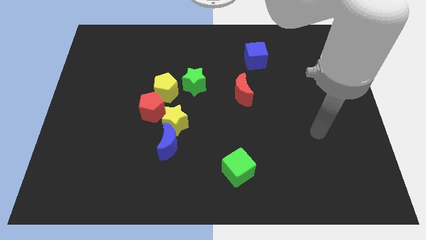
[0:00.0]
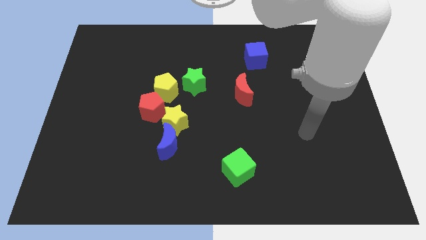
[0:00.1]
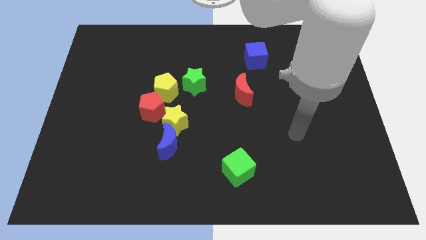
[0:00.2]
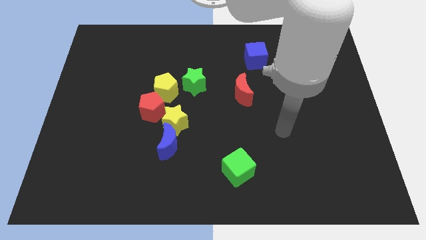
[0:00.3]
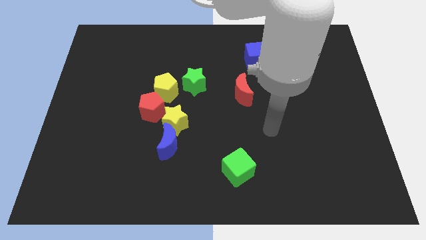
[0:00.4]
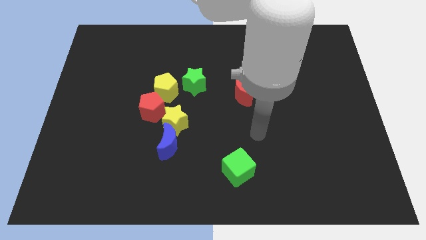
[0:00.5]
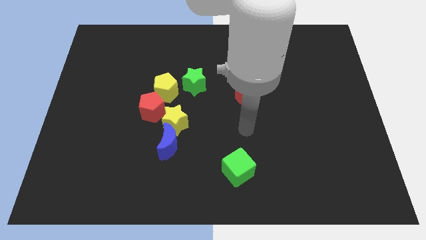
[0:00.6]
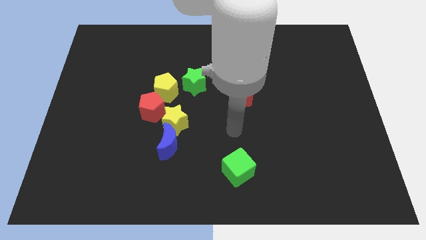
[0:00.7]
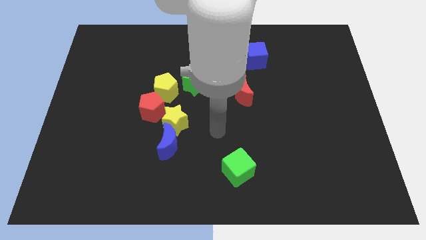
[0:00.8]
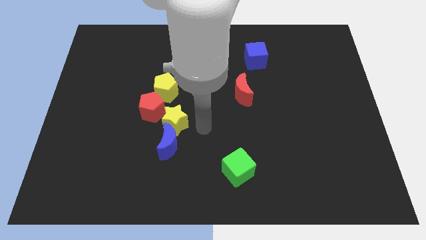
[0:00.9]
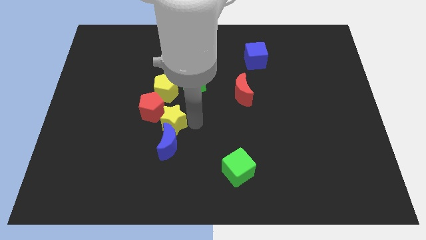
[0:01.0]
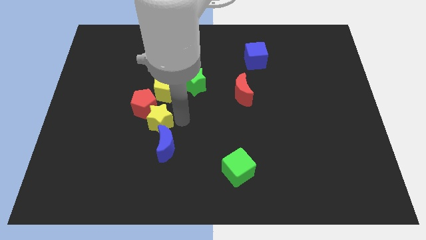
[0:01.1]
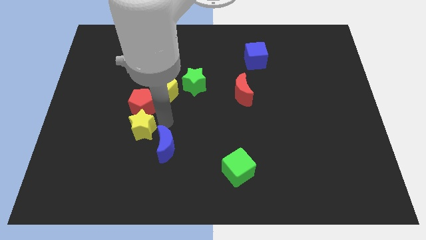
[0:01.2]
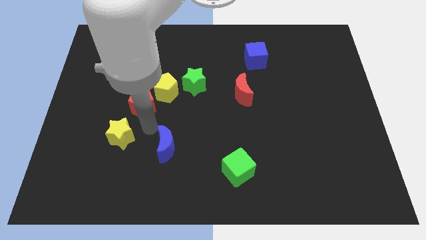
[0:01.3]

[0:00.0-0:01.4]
move the blue moon away from the yellow star

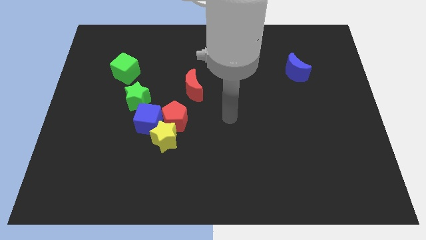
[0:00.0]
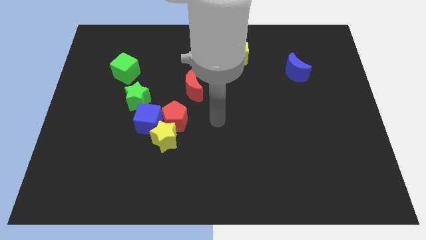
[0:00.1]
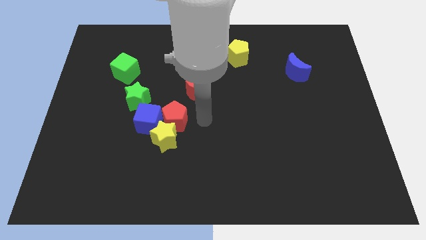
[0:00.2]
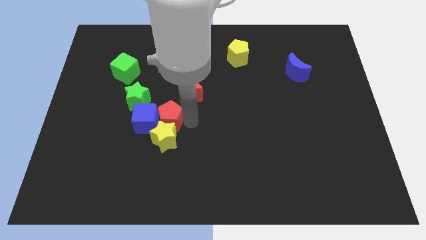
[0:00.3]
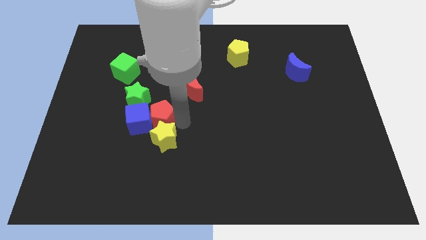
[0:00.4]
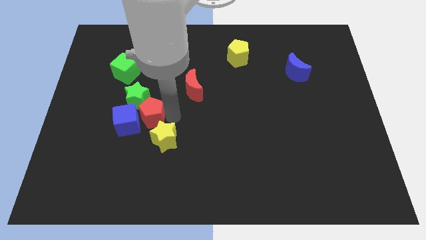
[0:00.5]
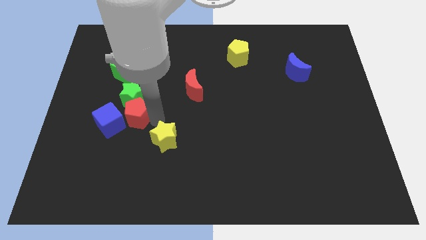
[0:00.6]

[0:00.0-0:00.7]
separate the yellow star from the red pentagon and blue cube

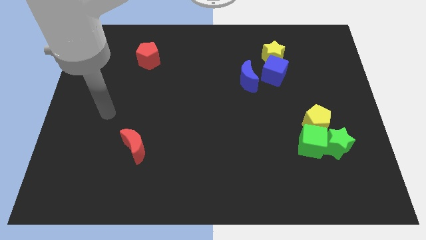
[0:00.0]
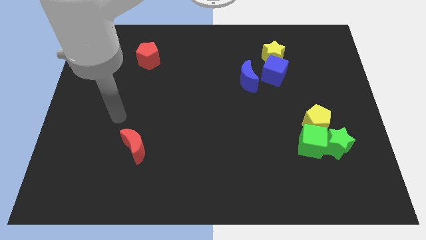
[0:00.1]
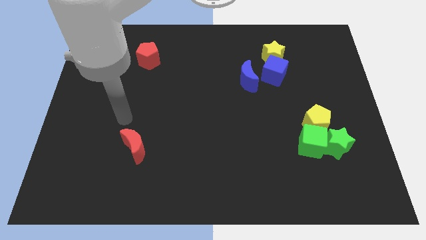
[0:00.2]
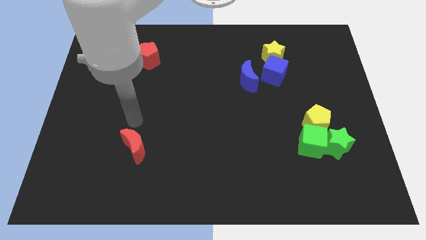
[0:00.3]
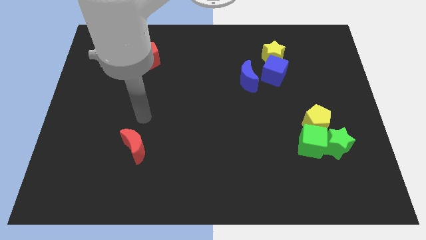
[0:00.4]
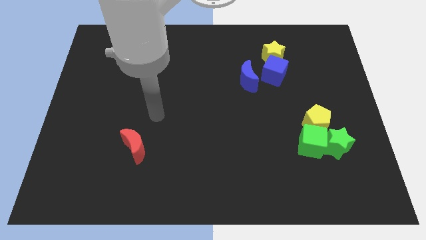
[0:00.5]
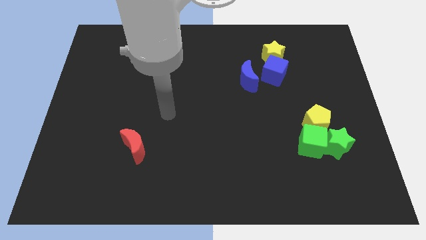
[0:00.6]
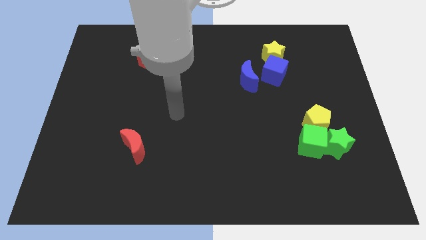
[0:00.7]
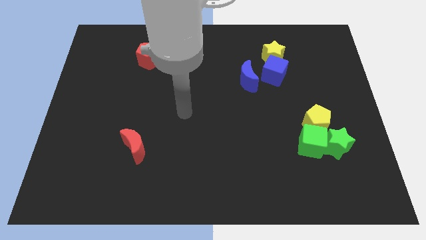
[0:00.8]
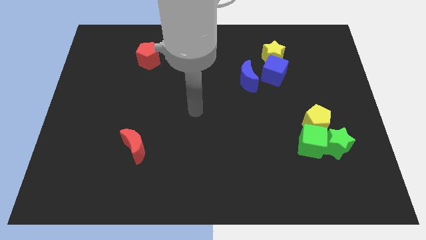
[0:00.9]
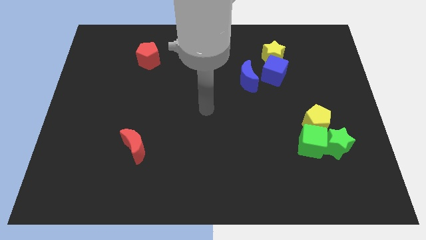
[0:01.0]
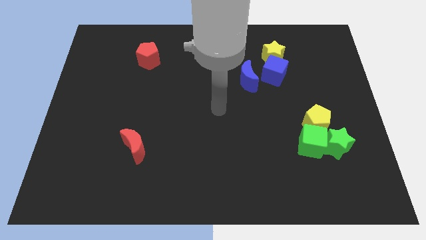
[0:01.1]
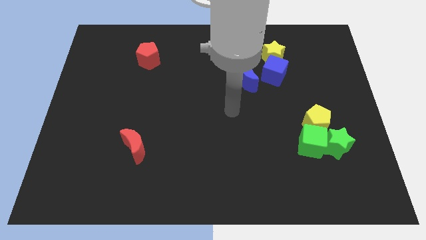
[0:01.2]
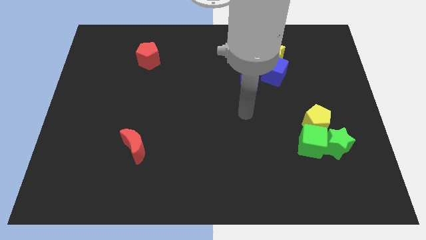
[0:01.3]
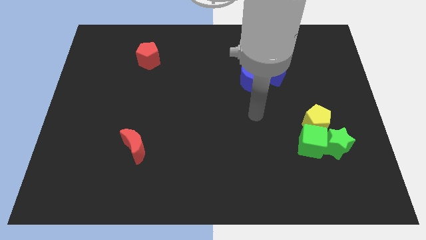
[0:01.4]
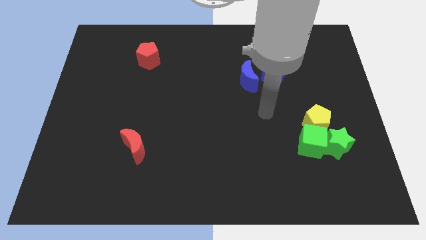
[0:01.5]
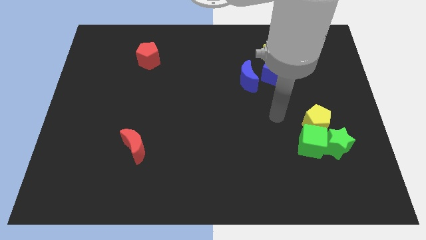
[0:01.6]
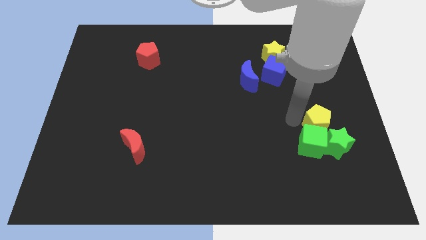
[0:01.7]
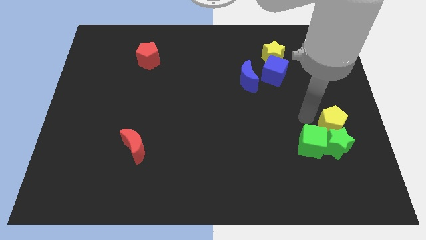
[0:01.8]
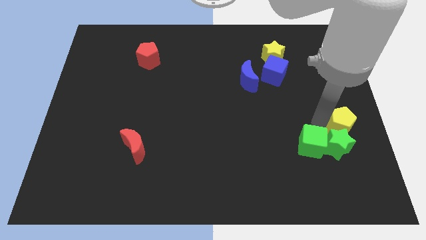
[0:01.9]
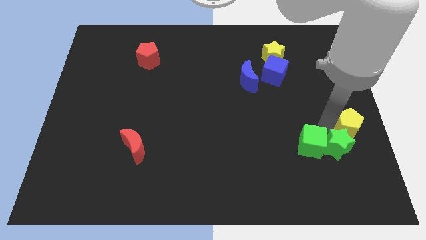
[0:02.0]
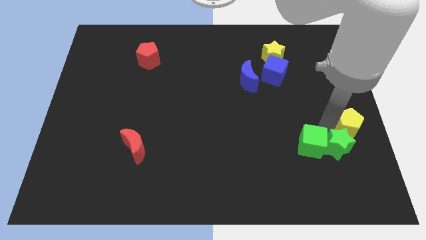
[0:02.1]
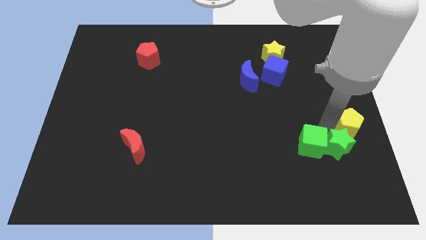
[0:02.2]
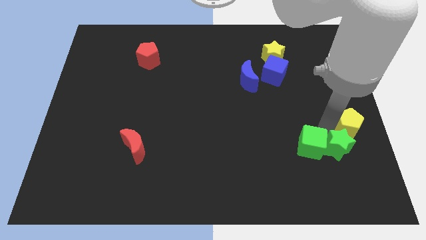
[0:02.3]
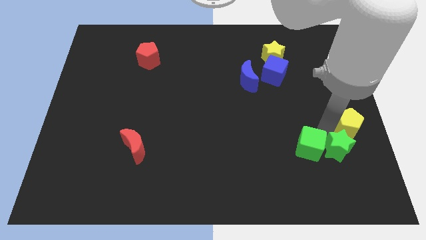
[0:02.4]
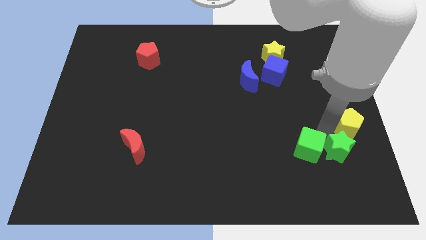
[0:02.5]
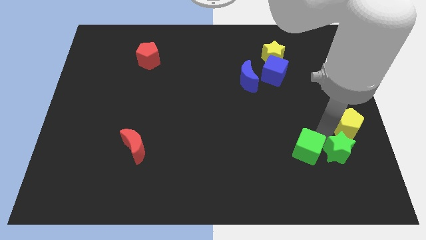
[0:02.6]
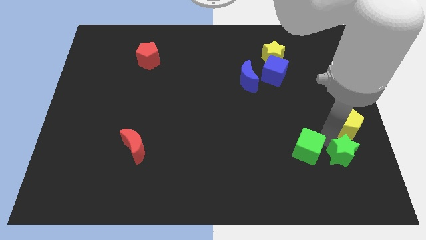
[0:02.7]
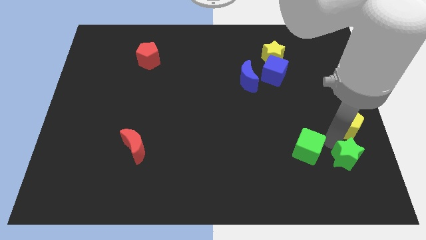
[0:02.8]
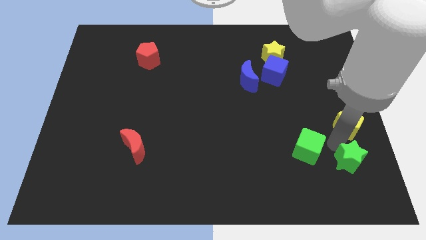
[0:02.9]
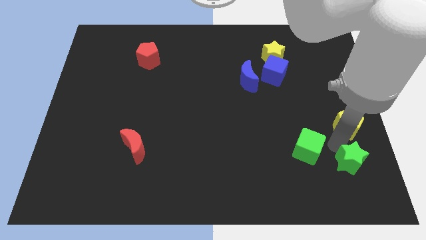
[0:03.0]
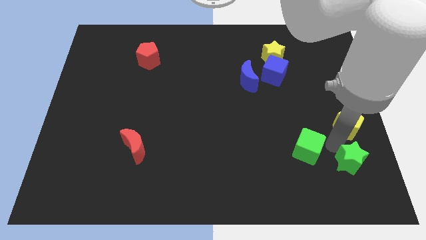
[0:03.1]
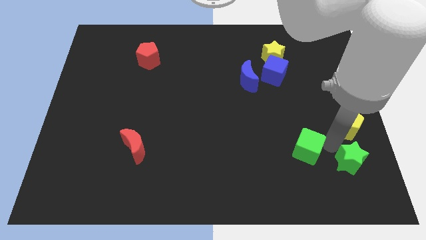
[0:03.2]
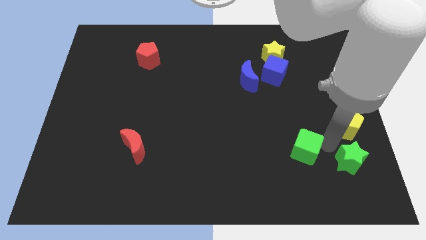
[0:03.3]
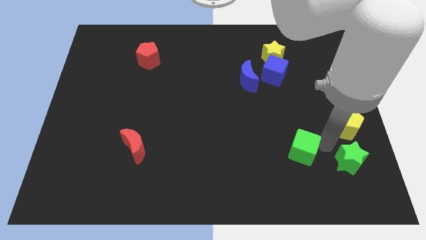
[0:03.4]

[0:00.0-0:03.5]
move the green cube away from the green star and yellow pentagon

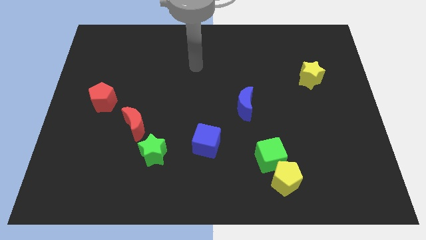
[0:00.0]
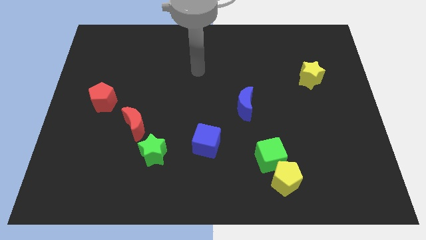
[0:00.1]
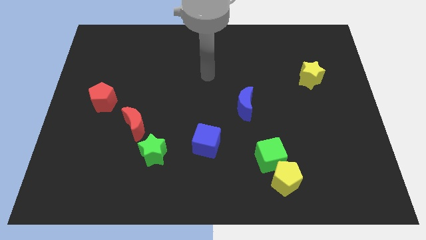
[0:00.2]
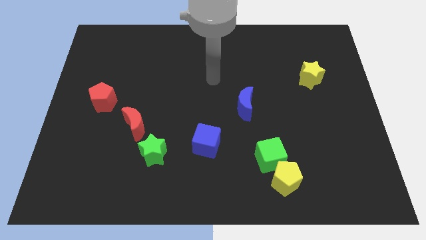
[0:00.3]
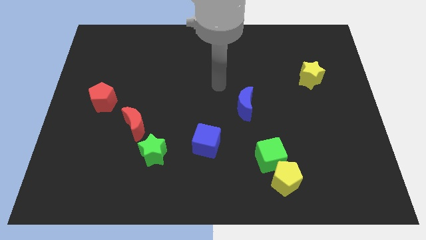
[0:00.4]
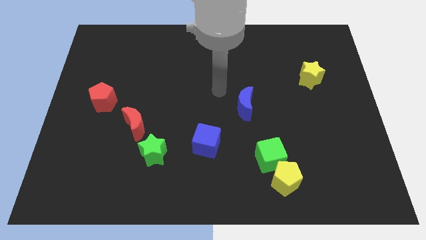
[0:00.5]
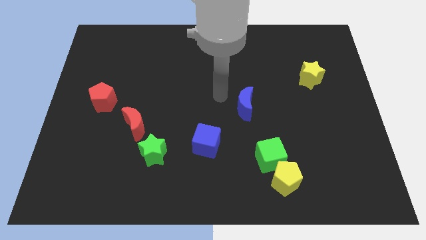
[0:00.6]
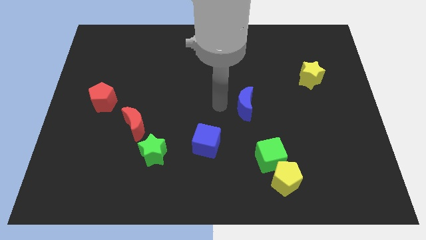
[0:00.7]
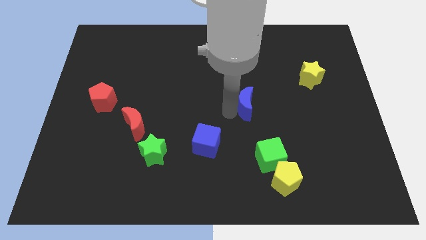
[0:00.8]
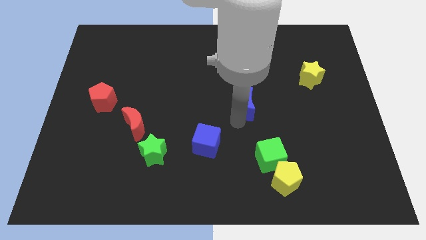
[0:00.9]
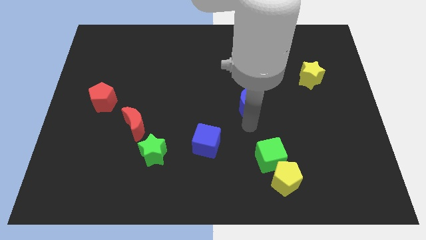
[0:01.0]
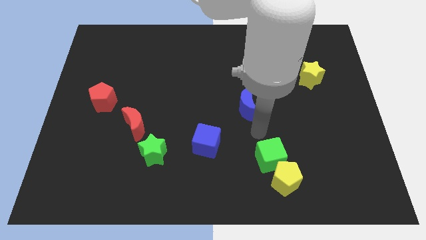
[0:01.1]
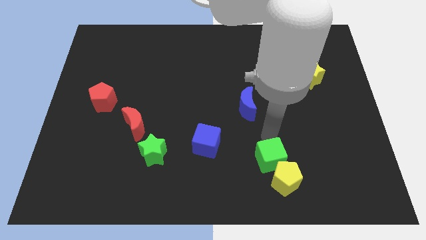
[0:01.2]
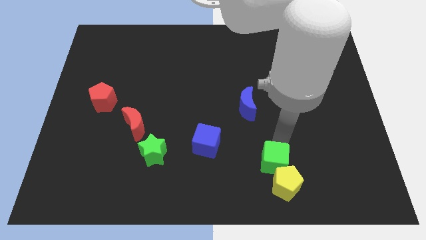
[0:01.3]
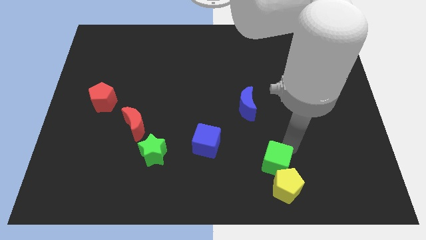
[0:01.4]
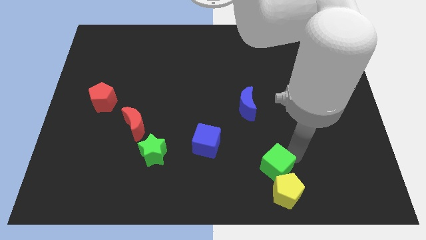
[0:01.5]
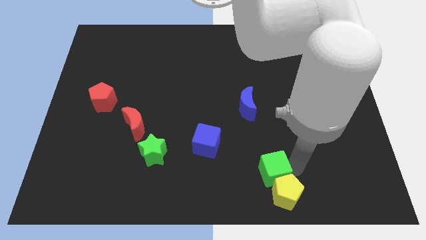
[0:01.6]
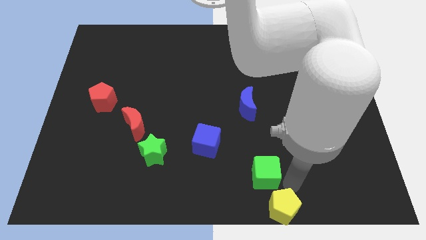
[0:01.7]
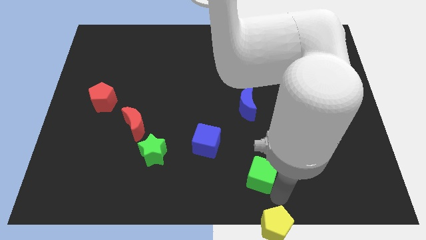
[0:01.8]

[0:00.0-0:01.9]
pull the green cube apart from the yellow pentagon

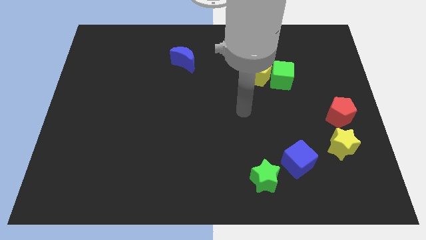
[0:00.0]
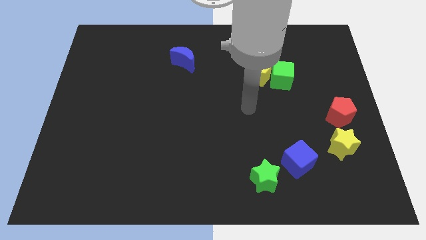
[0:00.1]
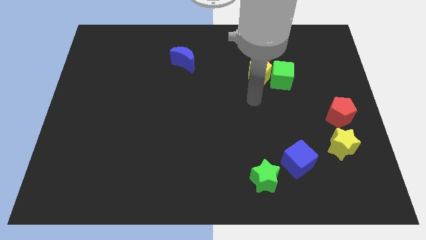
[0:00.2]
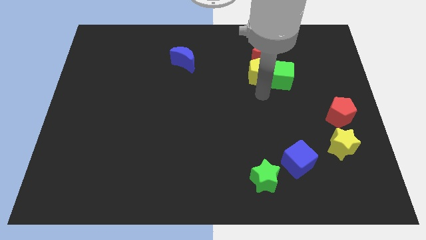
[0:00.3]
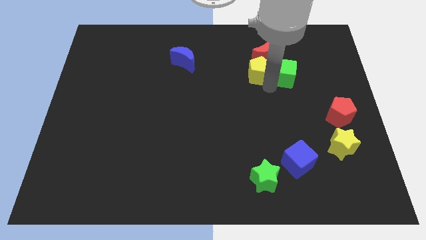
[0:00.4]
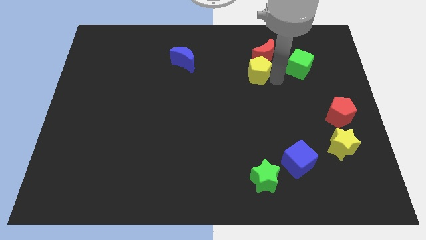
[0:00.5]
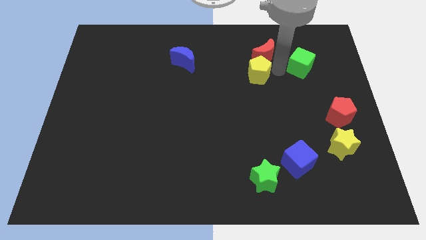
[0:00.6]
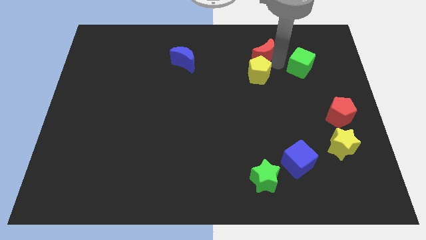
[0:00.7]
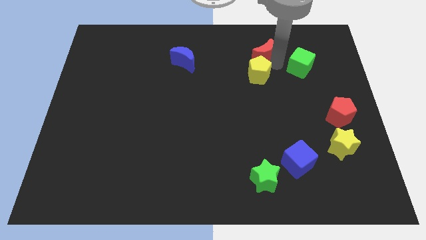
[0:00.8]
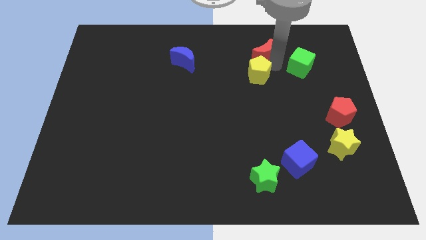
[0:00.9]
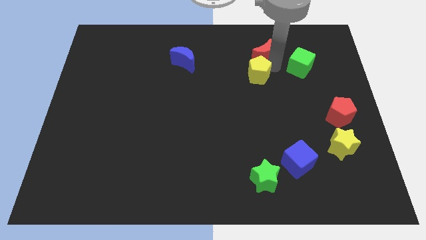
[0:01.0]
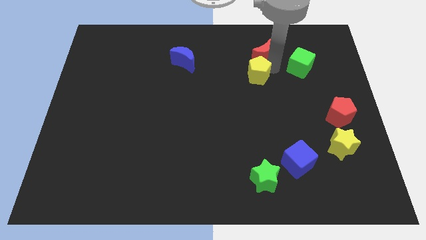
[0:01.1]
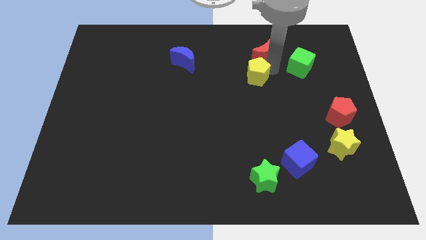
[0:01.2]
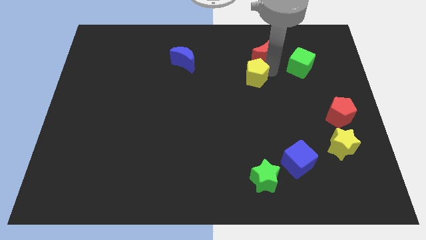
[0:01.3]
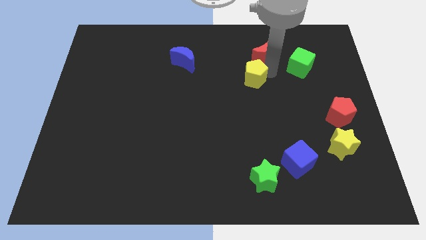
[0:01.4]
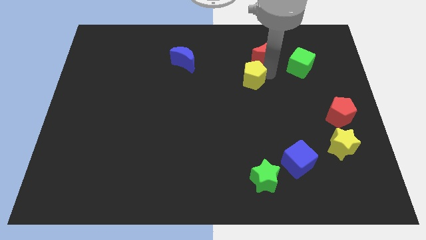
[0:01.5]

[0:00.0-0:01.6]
move the yellow pentagon away from the green cube and red moon
